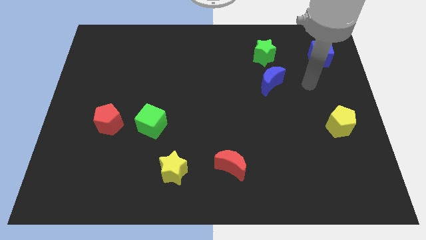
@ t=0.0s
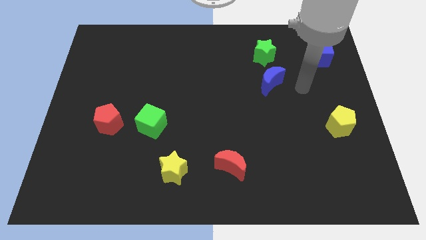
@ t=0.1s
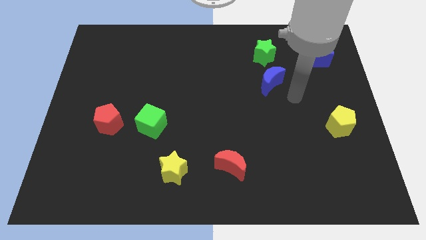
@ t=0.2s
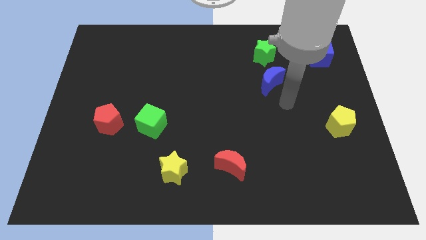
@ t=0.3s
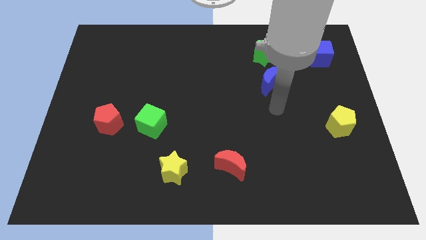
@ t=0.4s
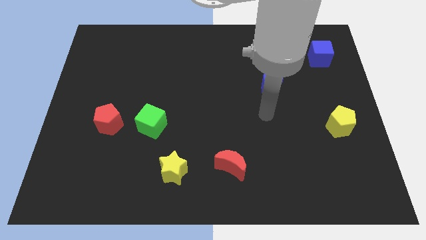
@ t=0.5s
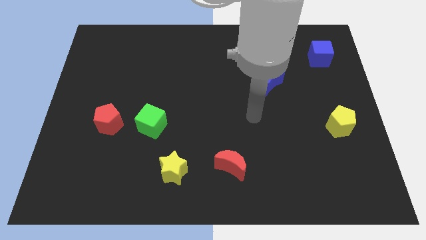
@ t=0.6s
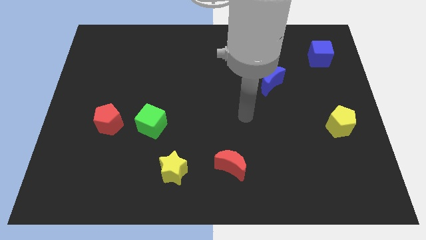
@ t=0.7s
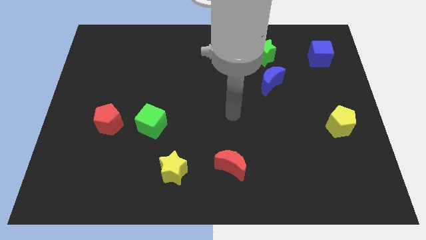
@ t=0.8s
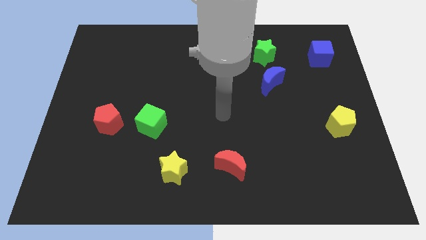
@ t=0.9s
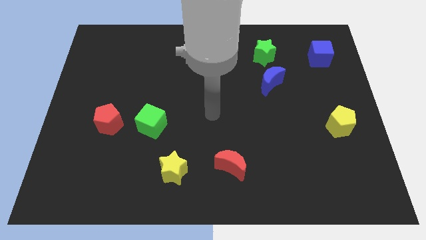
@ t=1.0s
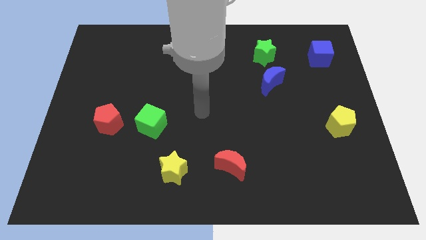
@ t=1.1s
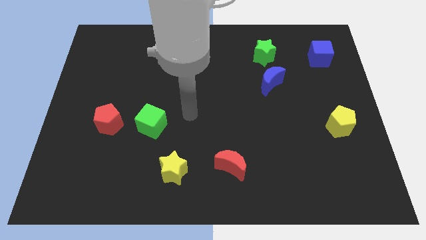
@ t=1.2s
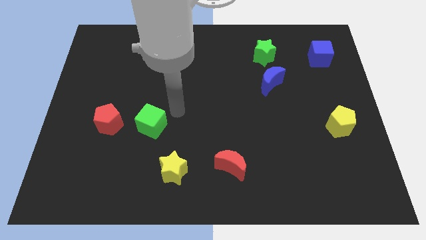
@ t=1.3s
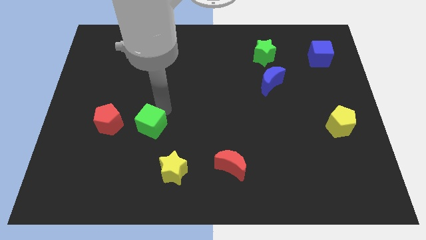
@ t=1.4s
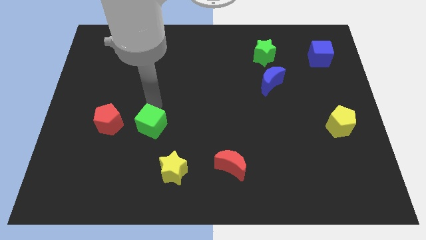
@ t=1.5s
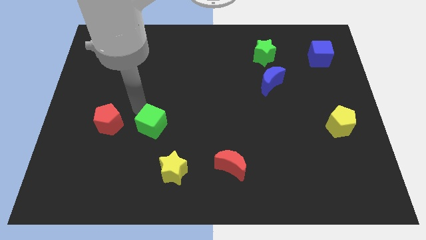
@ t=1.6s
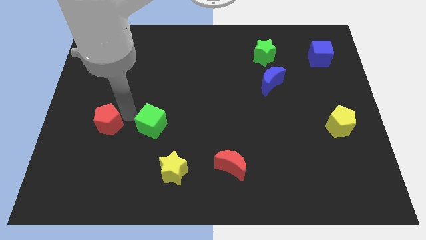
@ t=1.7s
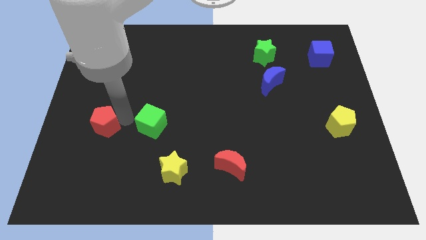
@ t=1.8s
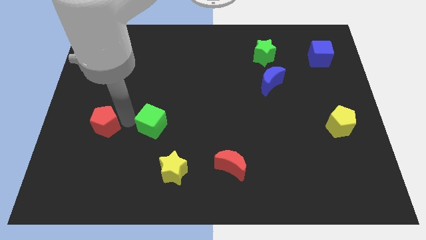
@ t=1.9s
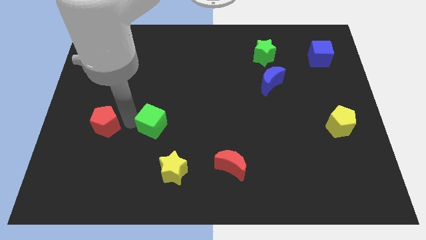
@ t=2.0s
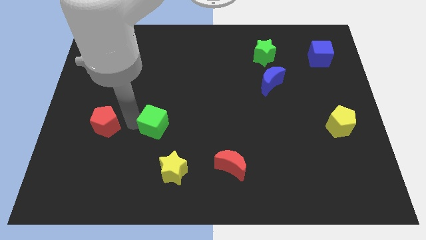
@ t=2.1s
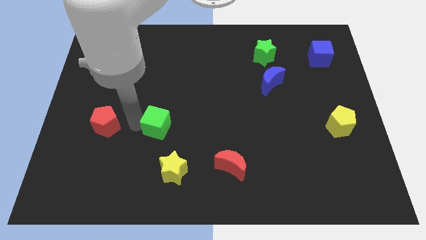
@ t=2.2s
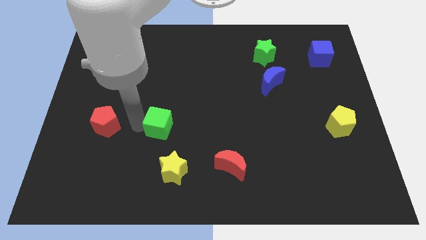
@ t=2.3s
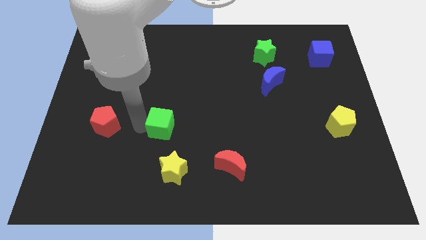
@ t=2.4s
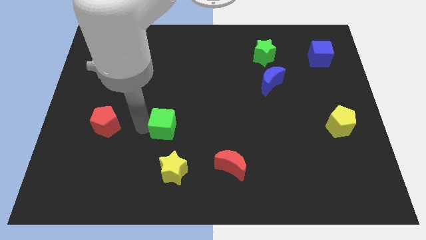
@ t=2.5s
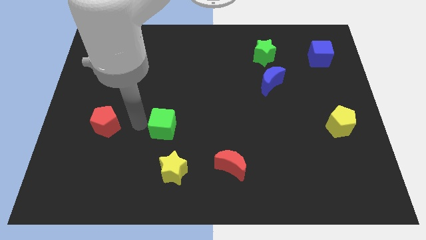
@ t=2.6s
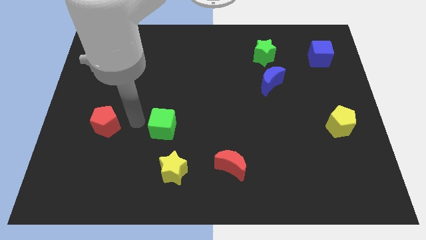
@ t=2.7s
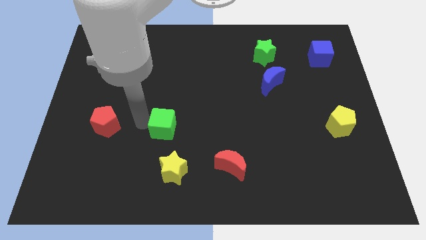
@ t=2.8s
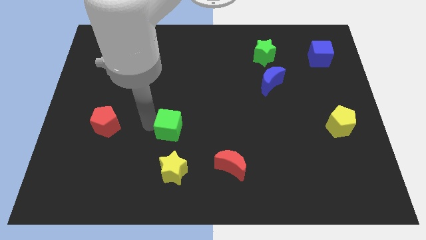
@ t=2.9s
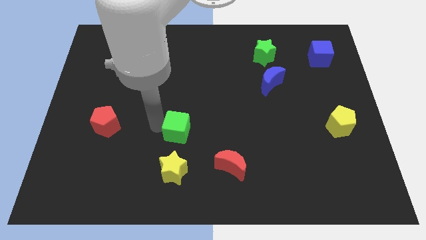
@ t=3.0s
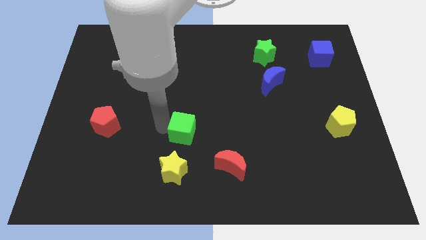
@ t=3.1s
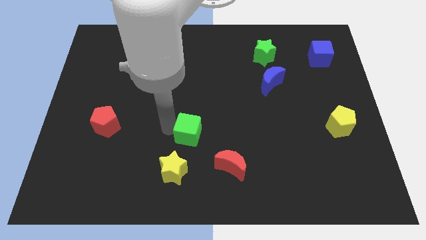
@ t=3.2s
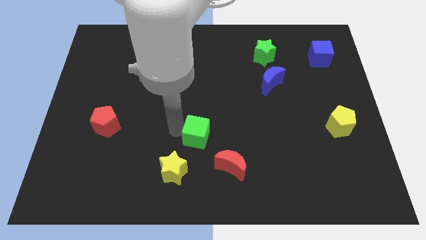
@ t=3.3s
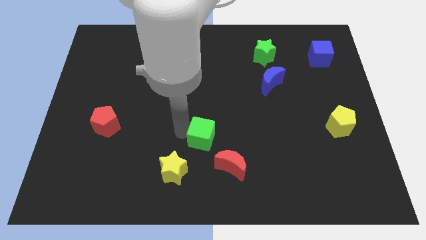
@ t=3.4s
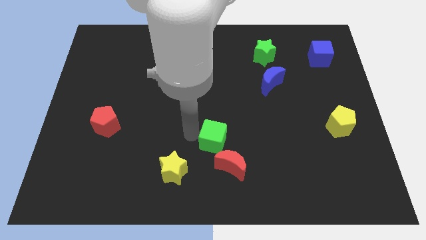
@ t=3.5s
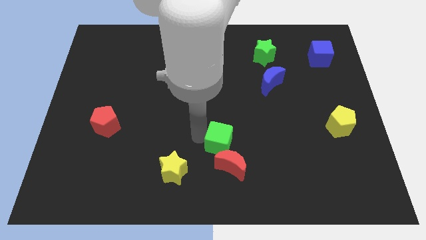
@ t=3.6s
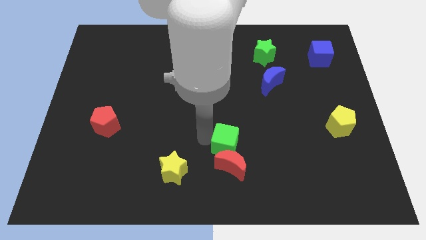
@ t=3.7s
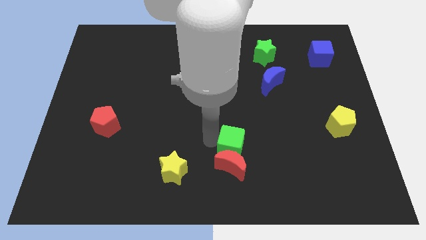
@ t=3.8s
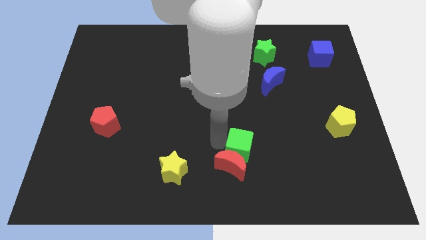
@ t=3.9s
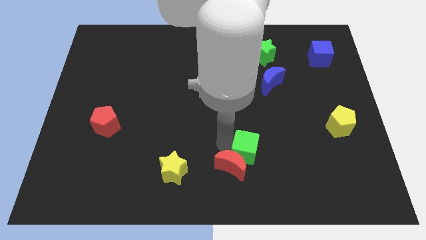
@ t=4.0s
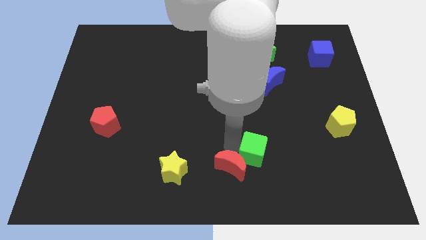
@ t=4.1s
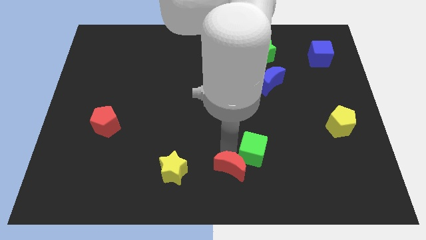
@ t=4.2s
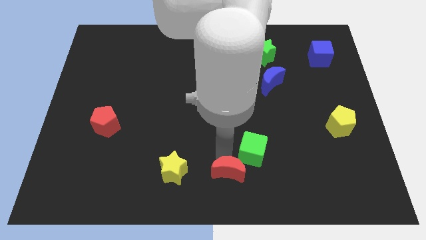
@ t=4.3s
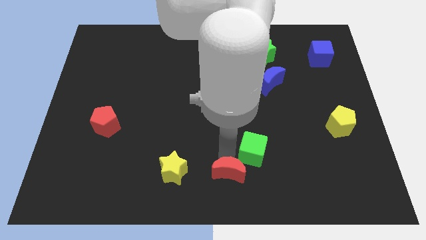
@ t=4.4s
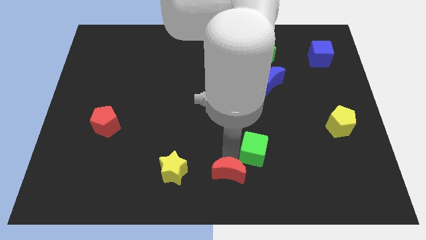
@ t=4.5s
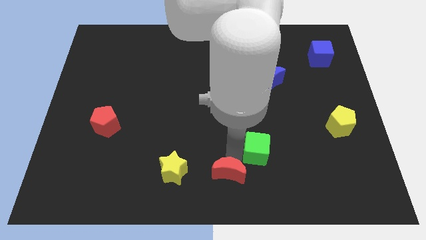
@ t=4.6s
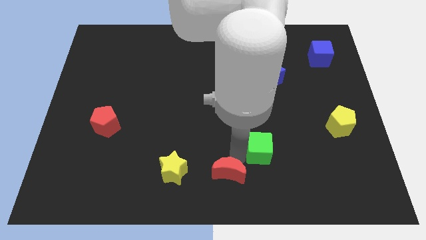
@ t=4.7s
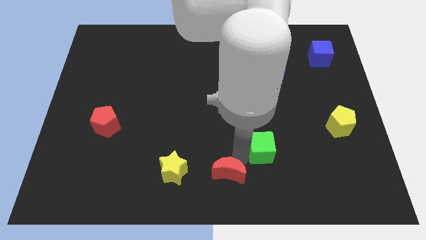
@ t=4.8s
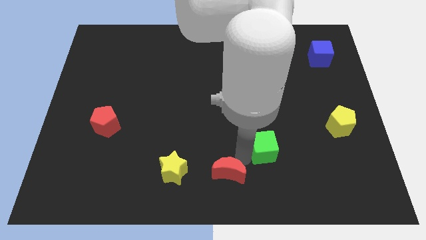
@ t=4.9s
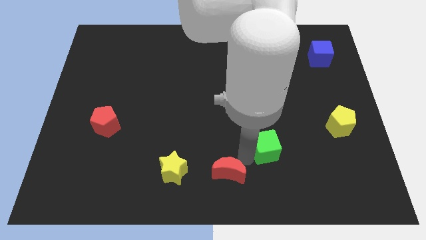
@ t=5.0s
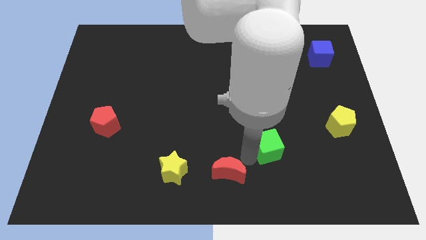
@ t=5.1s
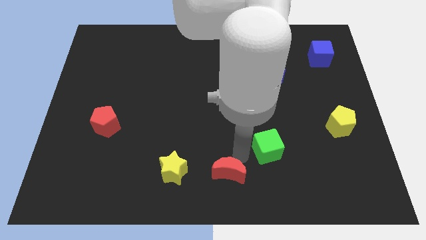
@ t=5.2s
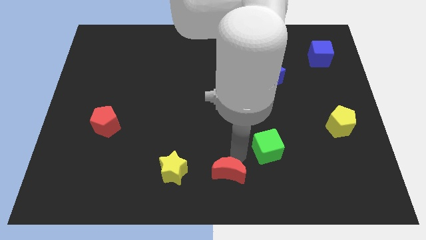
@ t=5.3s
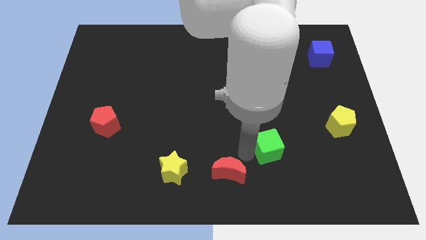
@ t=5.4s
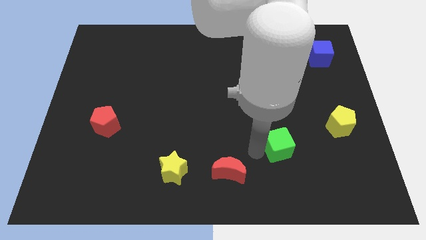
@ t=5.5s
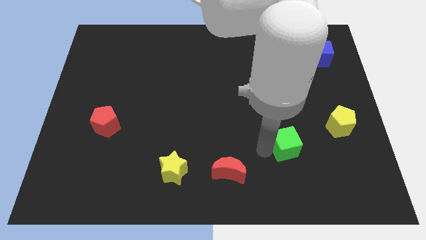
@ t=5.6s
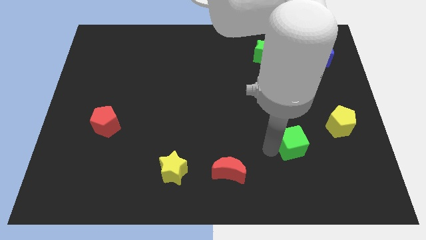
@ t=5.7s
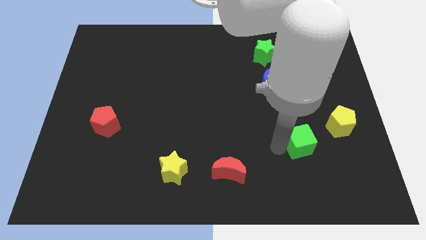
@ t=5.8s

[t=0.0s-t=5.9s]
slide the green cube diagonally down and to the left of the yellow pentagon
